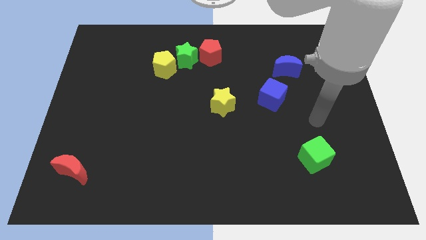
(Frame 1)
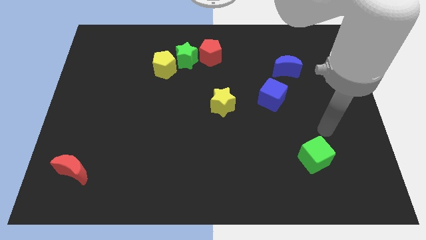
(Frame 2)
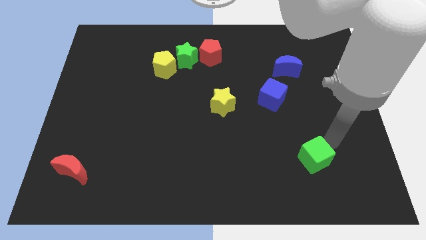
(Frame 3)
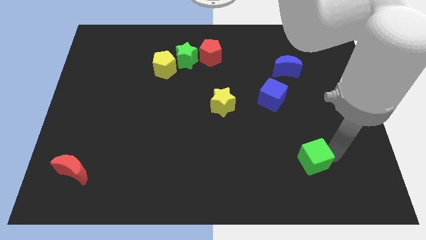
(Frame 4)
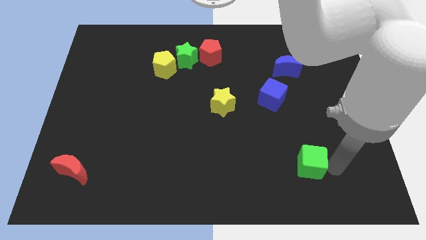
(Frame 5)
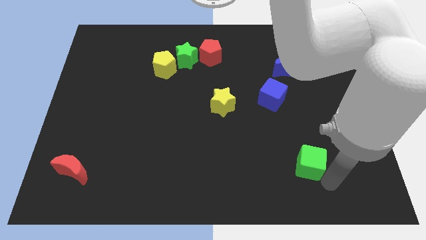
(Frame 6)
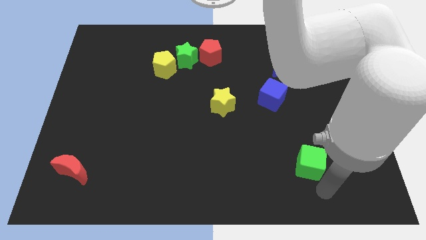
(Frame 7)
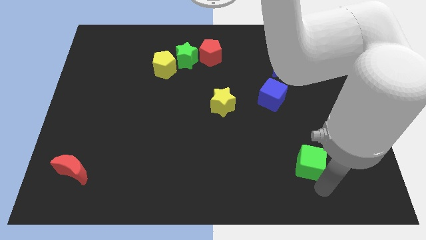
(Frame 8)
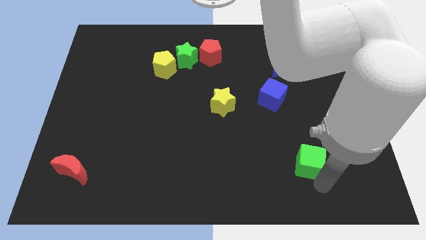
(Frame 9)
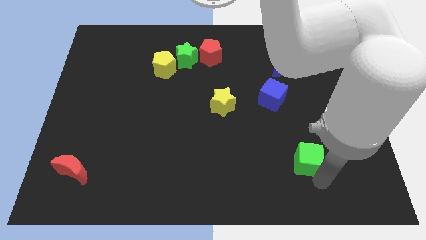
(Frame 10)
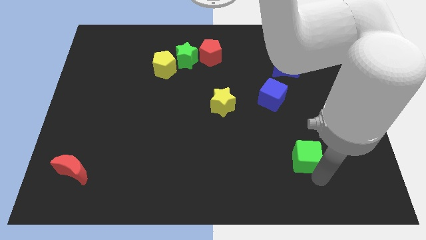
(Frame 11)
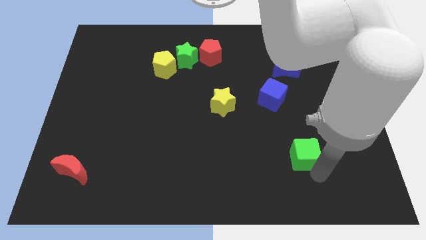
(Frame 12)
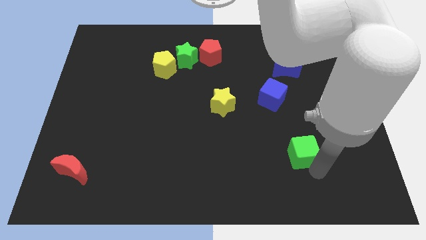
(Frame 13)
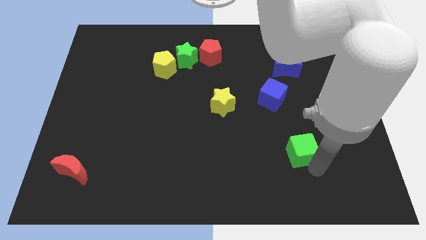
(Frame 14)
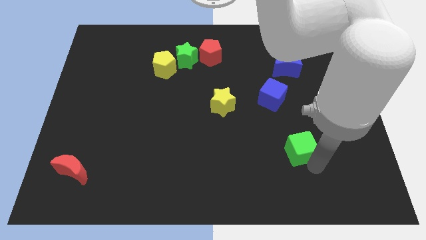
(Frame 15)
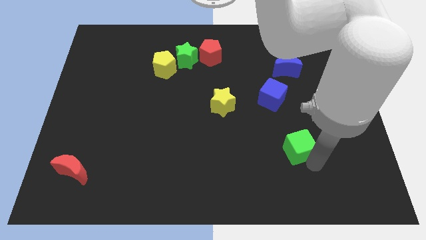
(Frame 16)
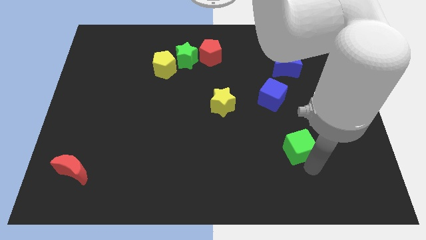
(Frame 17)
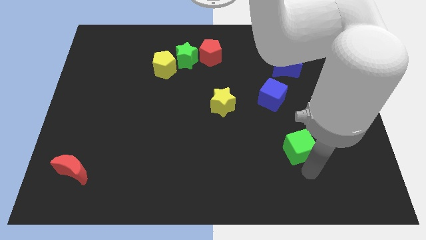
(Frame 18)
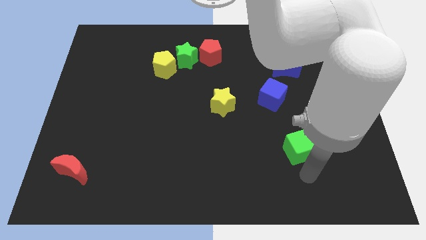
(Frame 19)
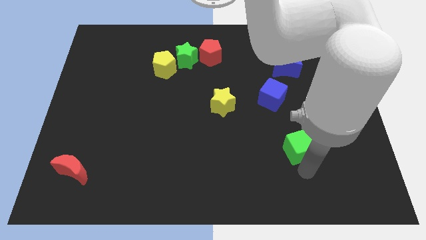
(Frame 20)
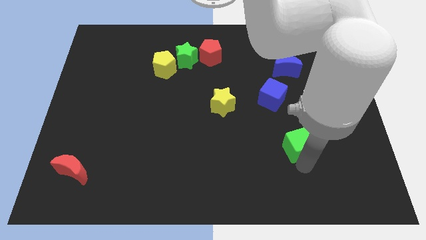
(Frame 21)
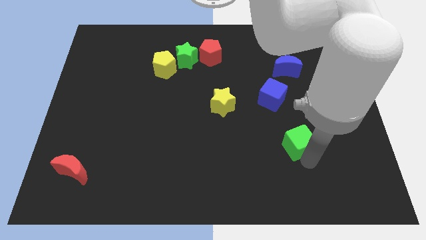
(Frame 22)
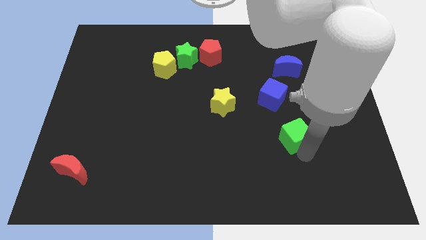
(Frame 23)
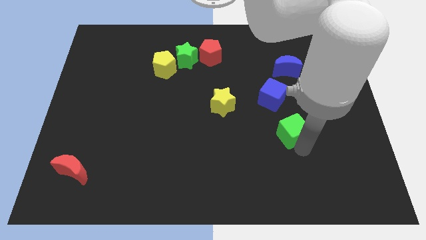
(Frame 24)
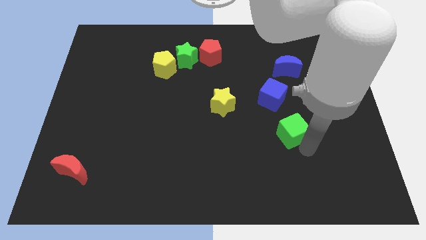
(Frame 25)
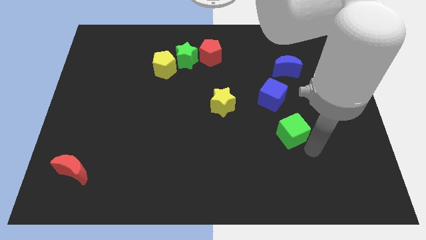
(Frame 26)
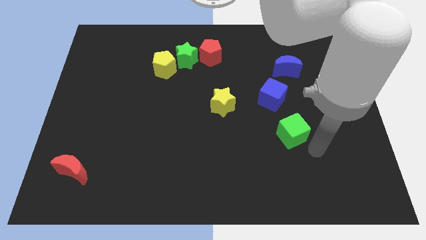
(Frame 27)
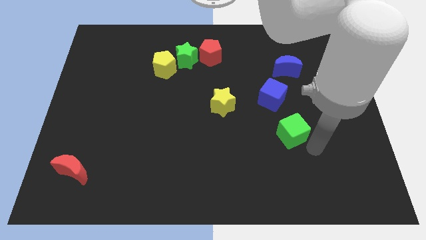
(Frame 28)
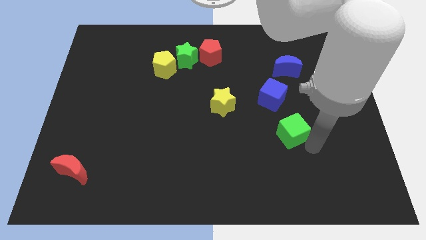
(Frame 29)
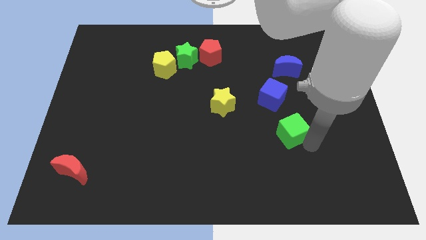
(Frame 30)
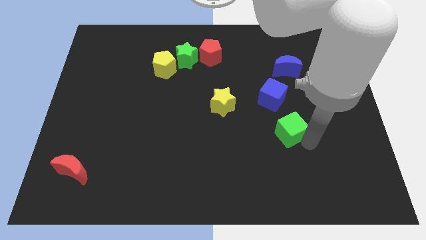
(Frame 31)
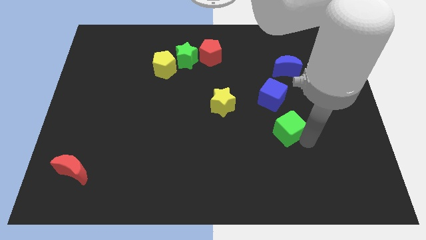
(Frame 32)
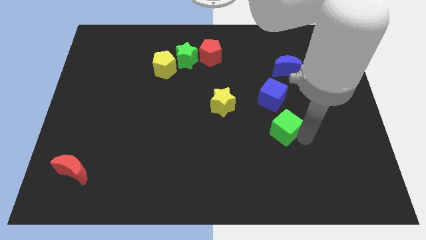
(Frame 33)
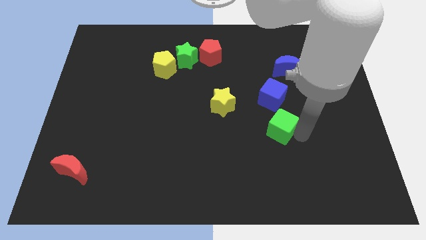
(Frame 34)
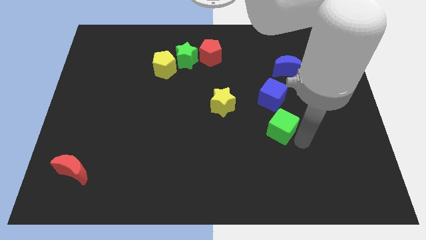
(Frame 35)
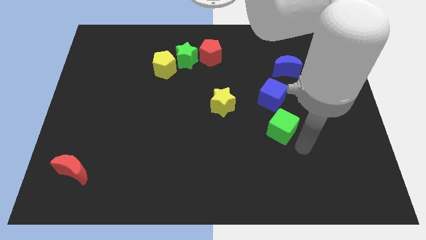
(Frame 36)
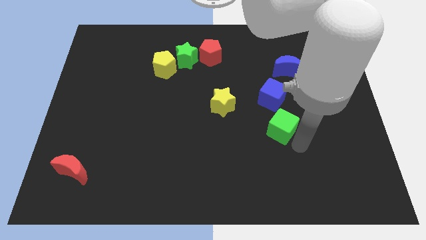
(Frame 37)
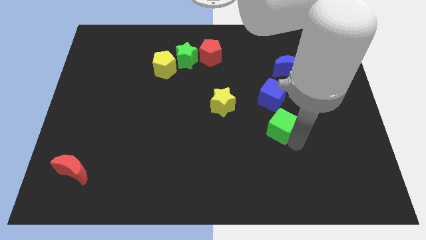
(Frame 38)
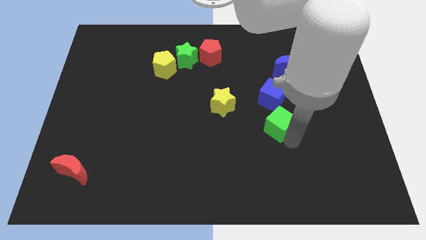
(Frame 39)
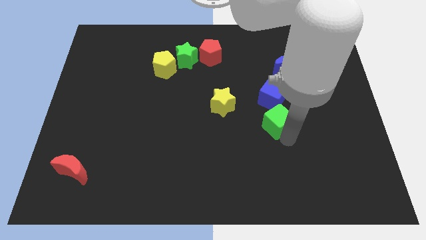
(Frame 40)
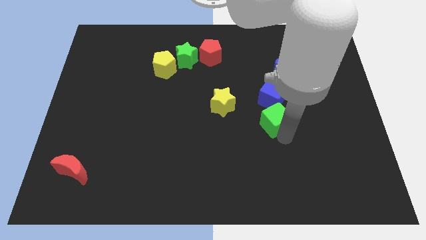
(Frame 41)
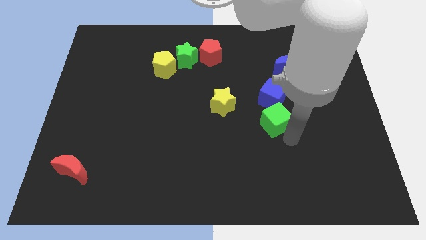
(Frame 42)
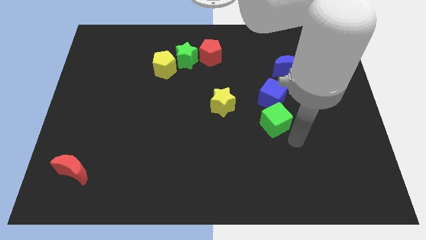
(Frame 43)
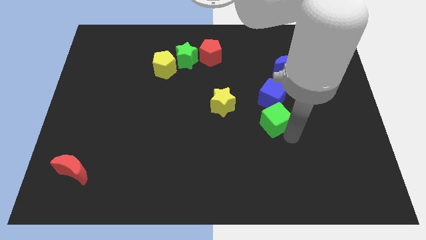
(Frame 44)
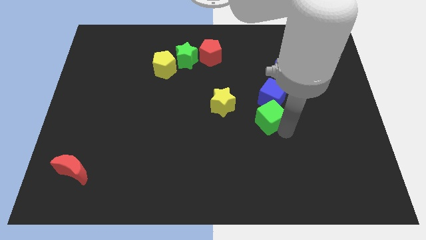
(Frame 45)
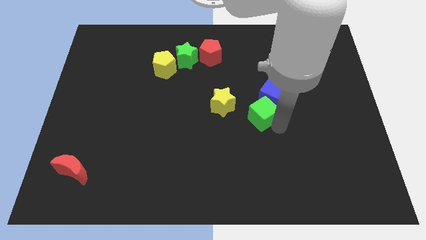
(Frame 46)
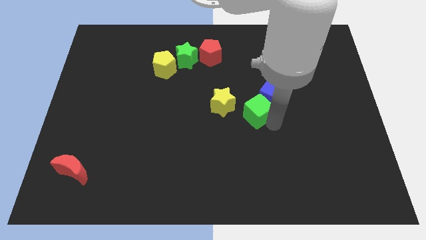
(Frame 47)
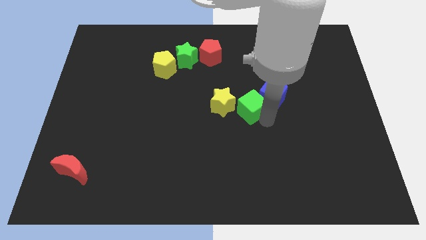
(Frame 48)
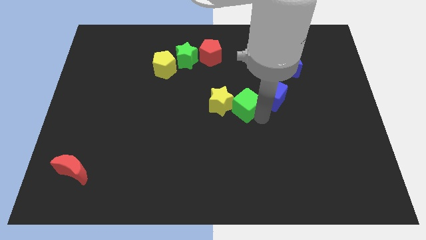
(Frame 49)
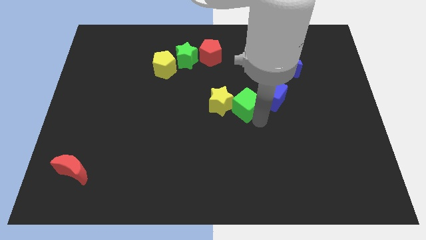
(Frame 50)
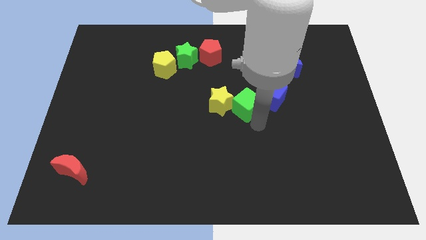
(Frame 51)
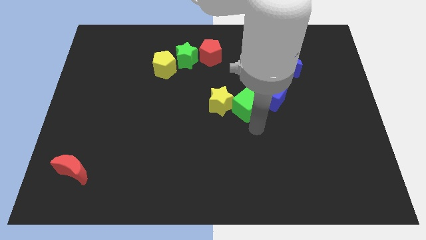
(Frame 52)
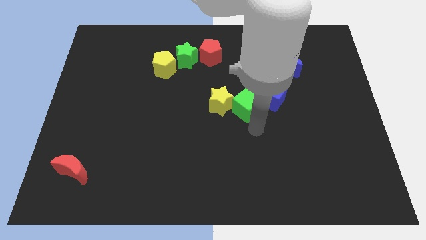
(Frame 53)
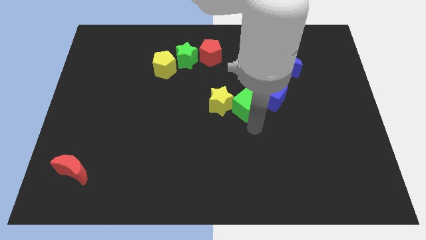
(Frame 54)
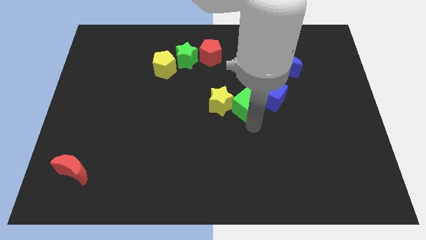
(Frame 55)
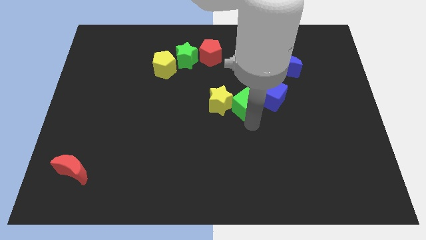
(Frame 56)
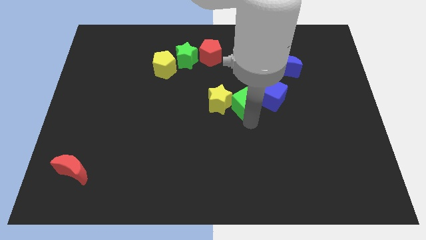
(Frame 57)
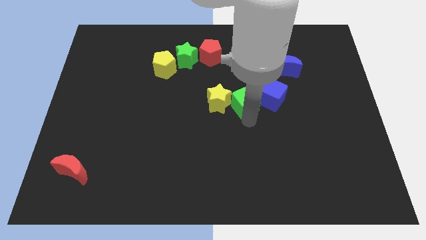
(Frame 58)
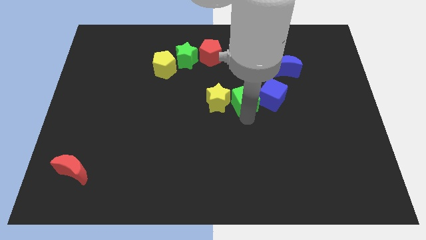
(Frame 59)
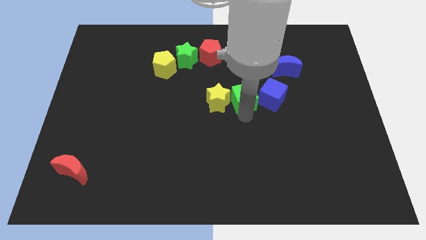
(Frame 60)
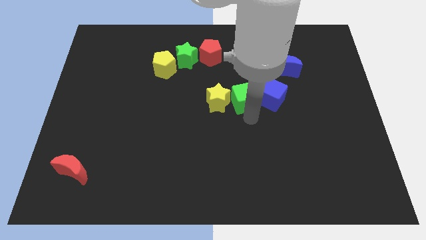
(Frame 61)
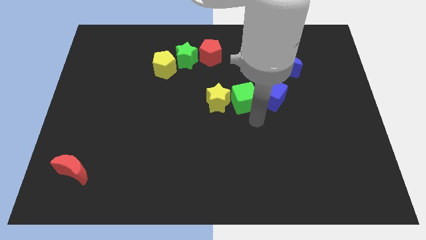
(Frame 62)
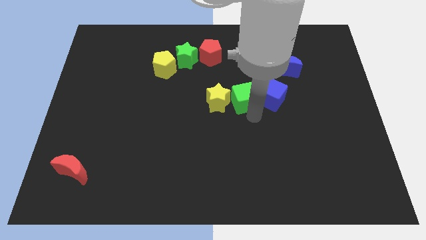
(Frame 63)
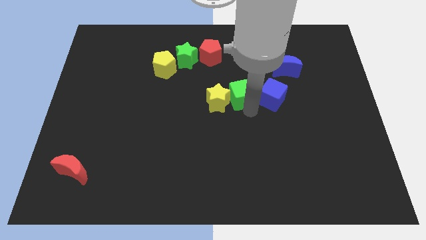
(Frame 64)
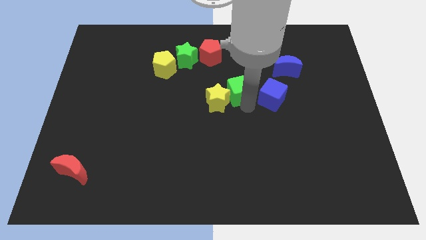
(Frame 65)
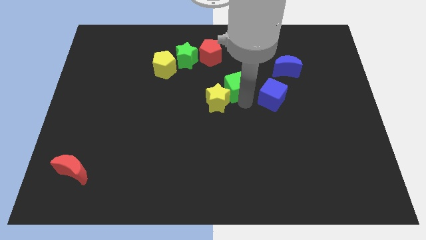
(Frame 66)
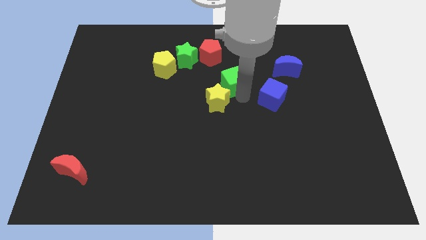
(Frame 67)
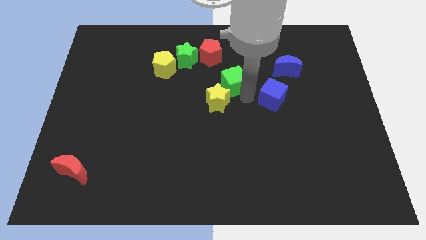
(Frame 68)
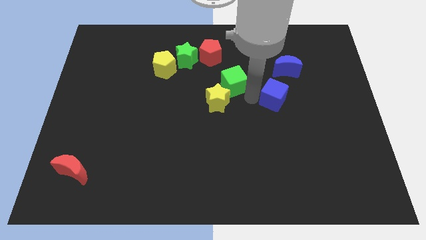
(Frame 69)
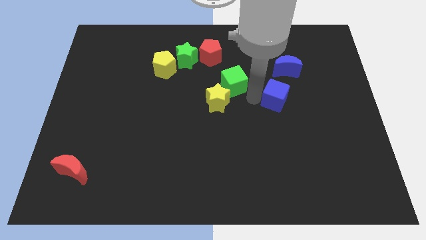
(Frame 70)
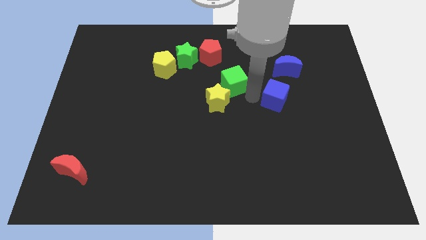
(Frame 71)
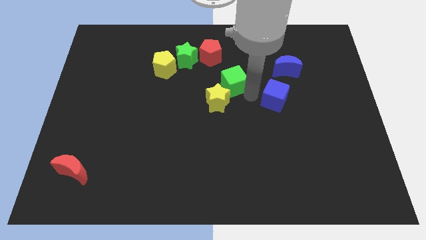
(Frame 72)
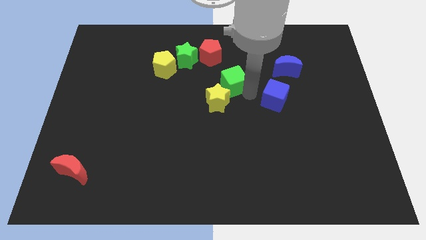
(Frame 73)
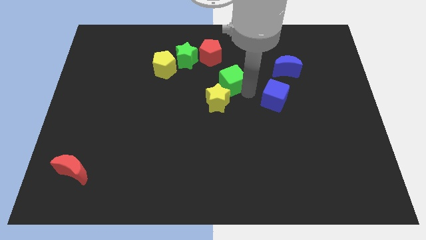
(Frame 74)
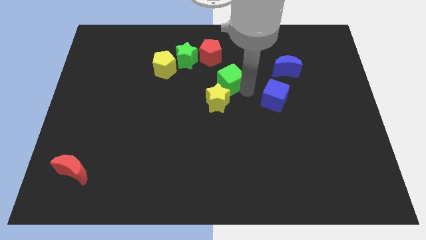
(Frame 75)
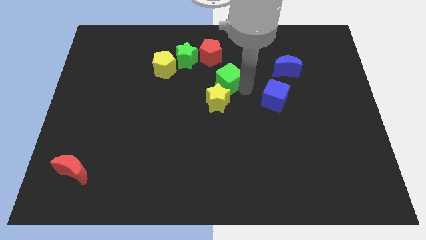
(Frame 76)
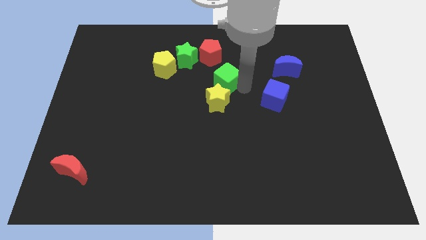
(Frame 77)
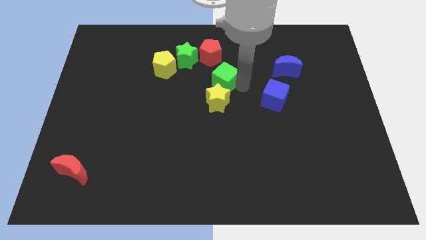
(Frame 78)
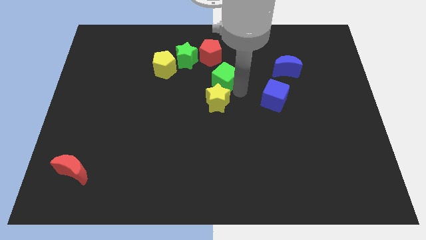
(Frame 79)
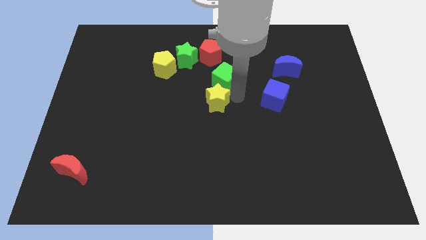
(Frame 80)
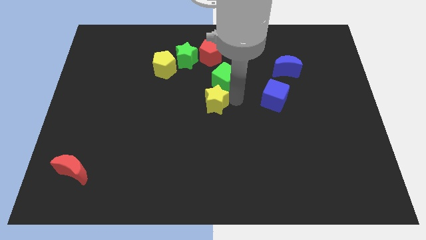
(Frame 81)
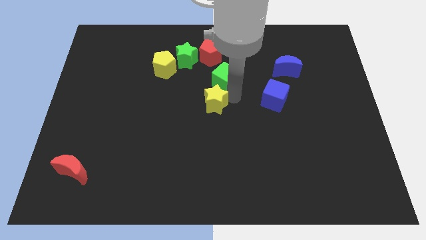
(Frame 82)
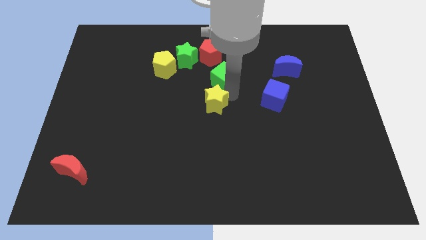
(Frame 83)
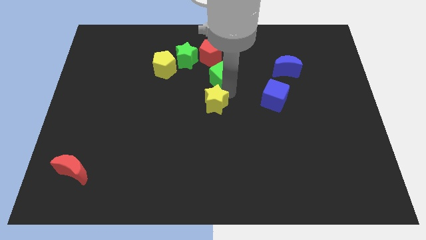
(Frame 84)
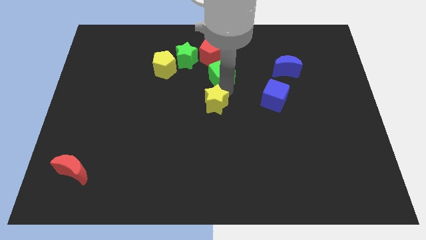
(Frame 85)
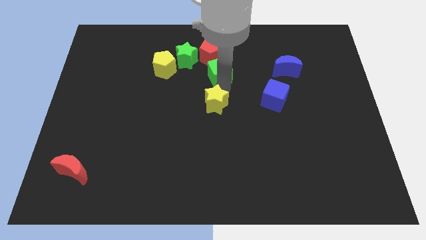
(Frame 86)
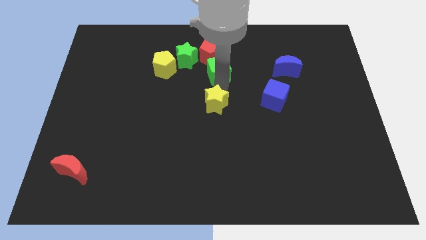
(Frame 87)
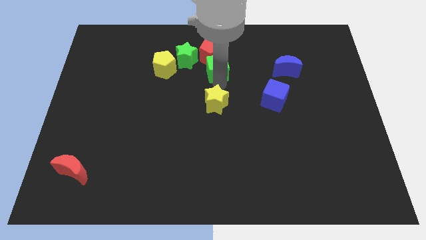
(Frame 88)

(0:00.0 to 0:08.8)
put the green cube to the red pentagon
